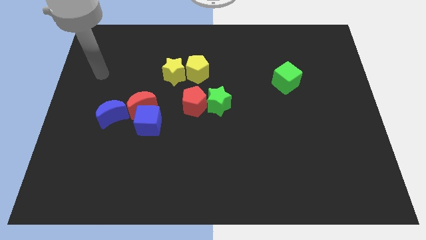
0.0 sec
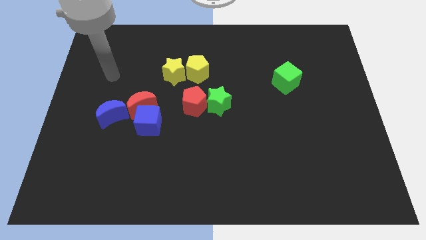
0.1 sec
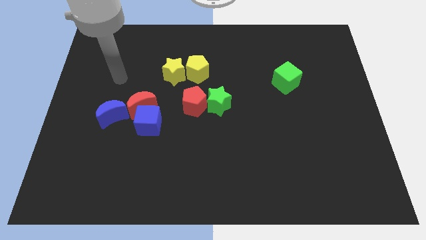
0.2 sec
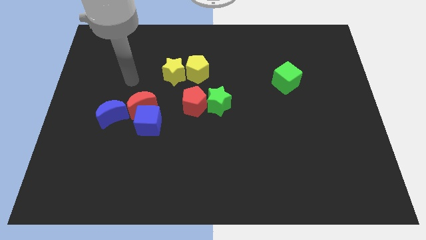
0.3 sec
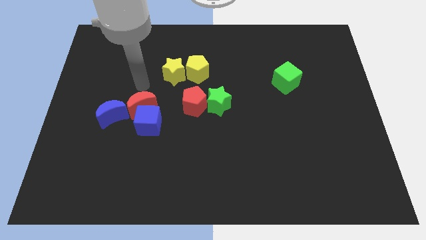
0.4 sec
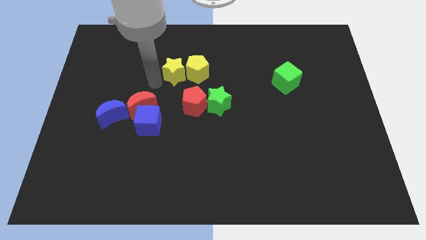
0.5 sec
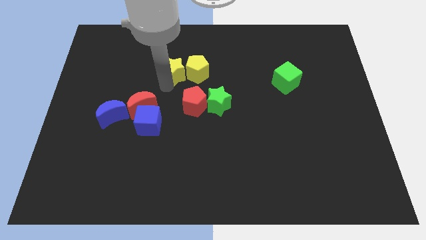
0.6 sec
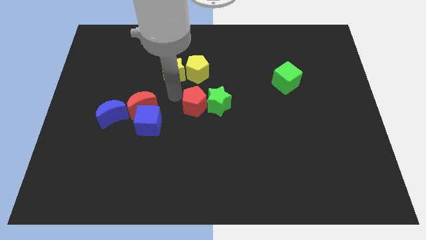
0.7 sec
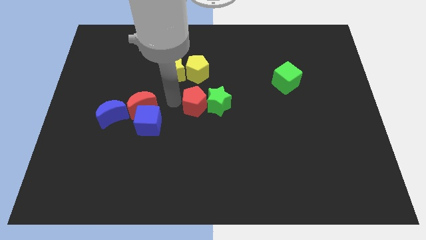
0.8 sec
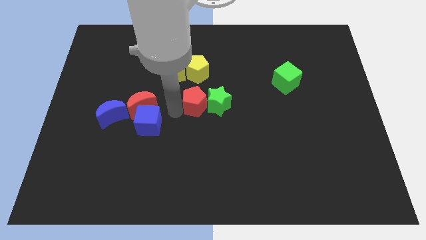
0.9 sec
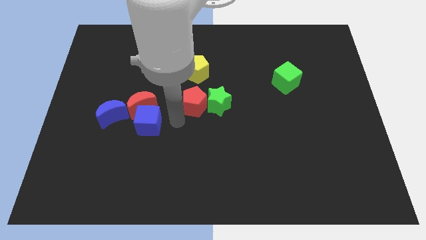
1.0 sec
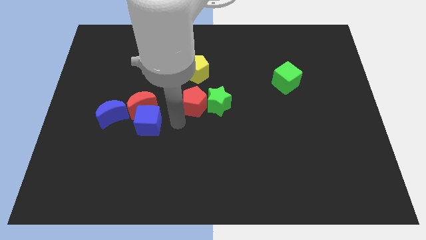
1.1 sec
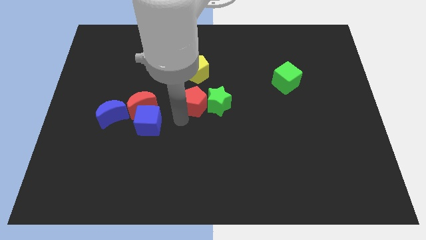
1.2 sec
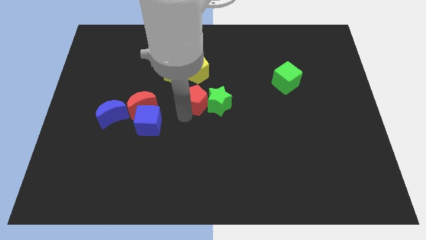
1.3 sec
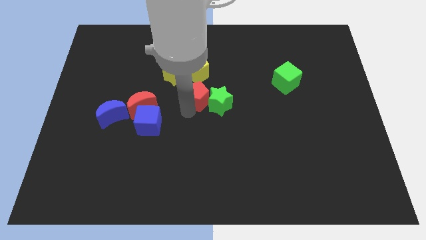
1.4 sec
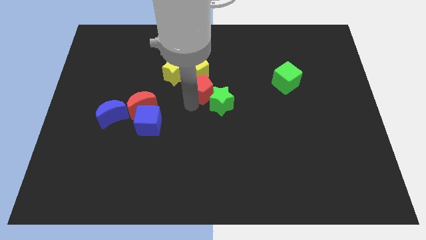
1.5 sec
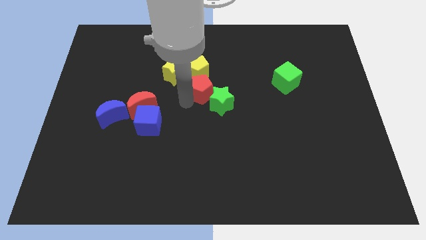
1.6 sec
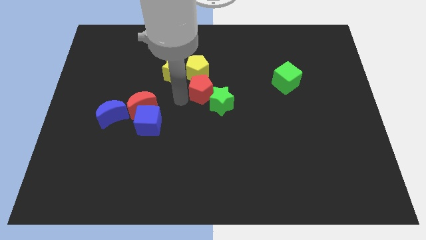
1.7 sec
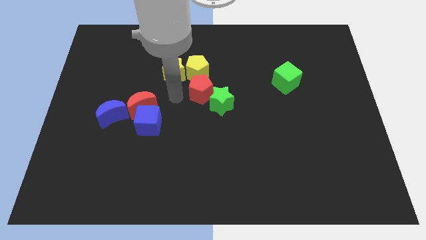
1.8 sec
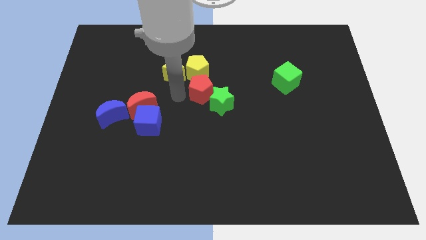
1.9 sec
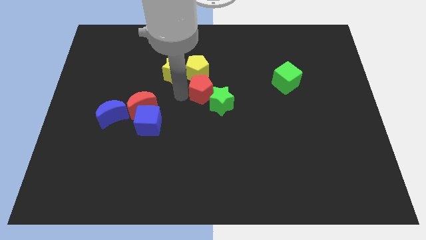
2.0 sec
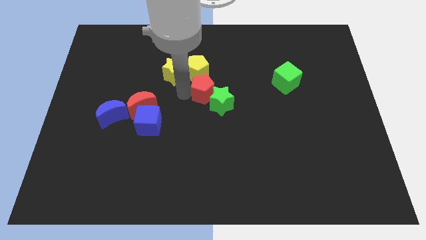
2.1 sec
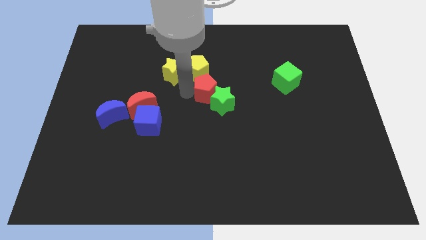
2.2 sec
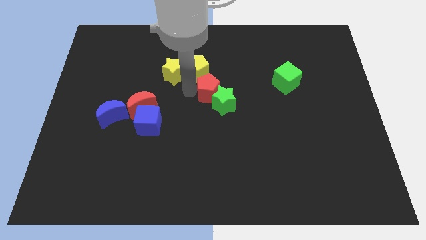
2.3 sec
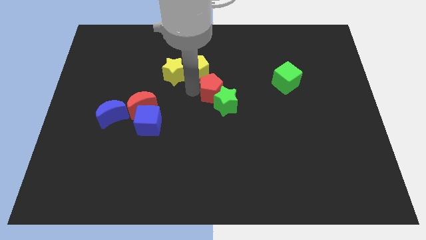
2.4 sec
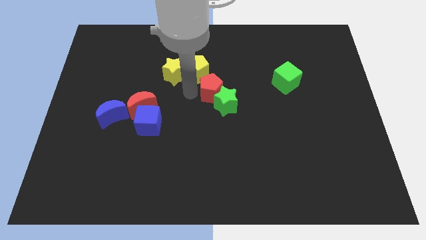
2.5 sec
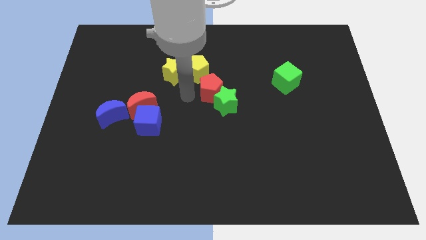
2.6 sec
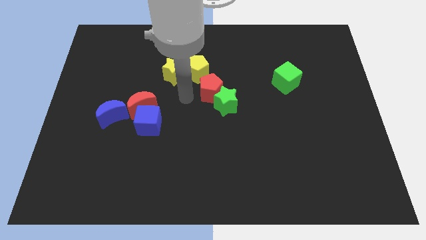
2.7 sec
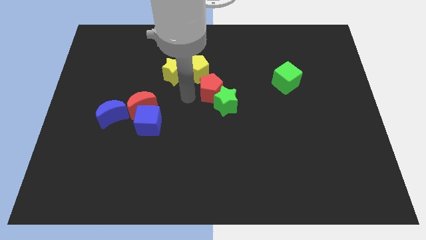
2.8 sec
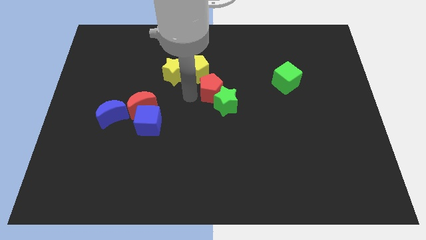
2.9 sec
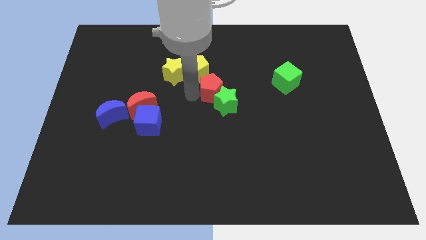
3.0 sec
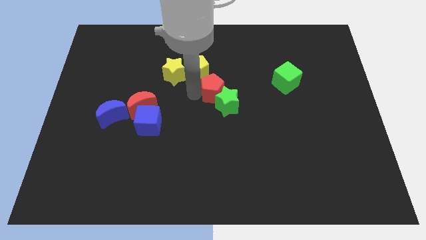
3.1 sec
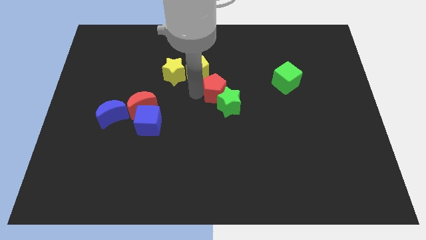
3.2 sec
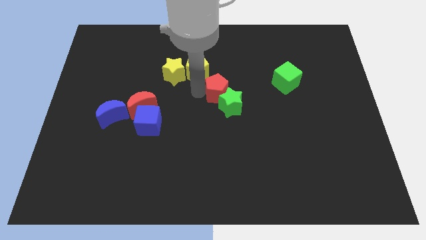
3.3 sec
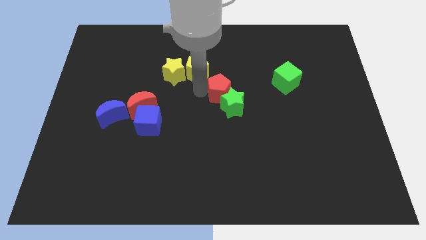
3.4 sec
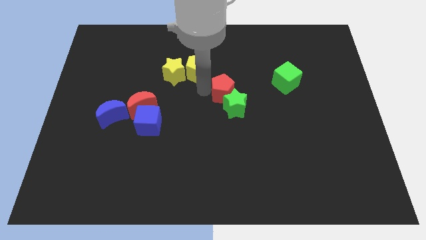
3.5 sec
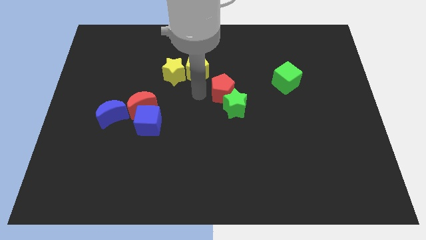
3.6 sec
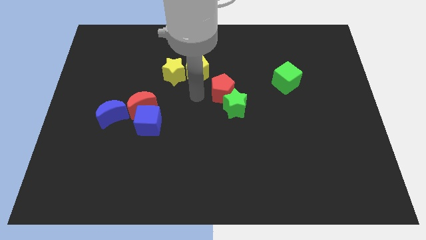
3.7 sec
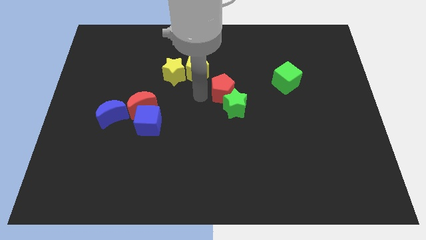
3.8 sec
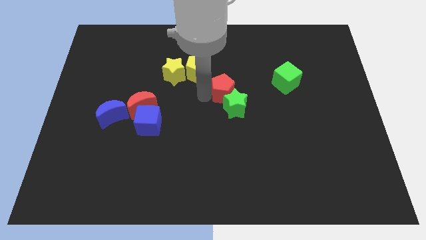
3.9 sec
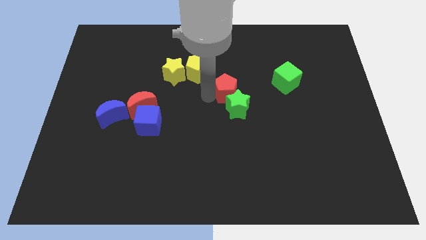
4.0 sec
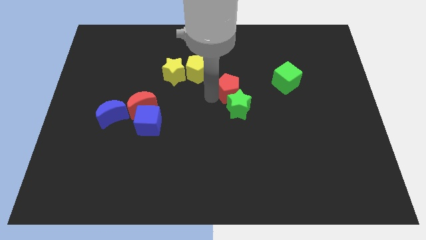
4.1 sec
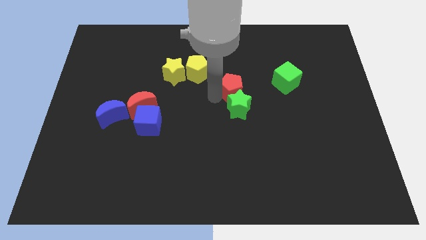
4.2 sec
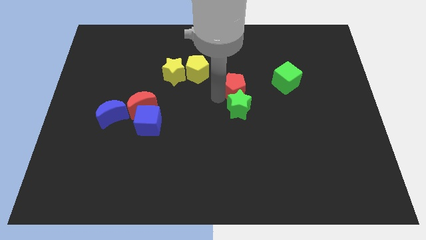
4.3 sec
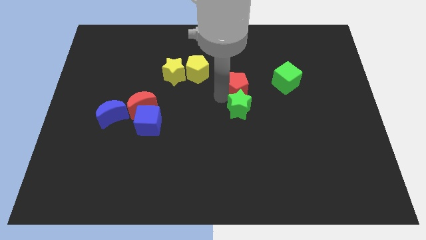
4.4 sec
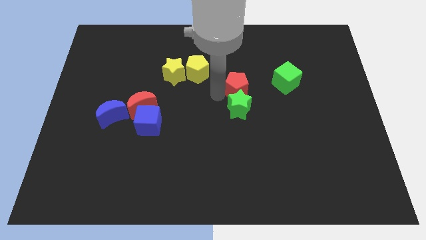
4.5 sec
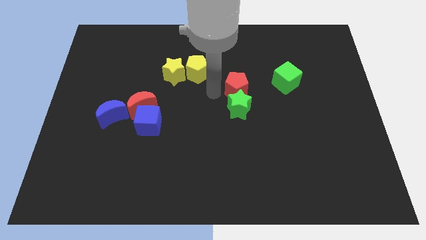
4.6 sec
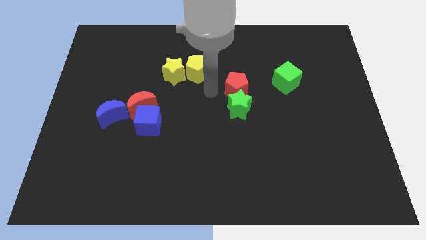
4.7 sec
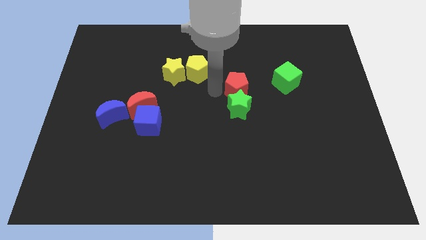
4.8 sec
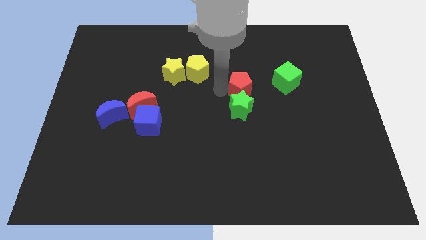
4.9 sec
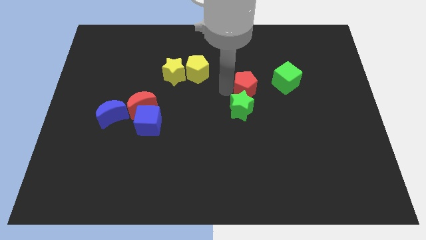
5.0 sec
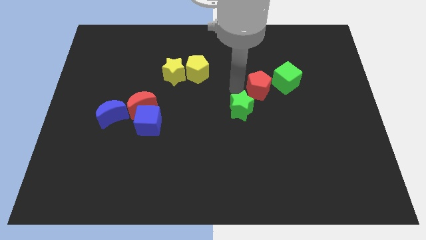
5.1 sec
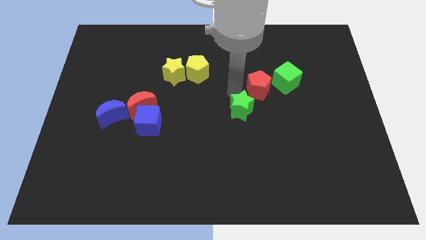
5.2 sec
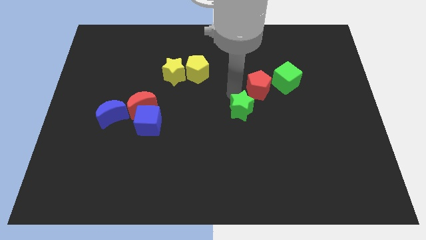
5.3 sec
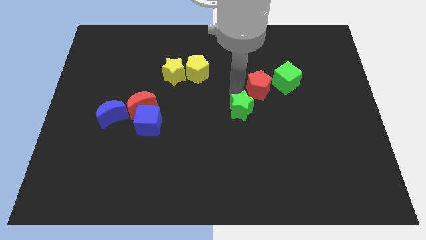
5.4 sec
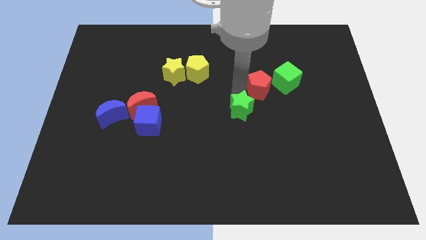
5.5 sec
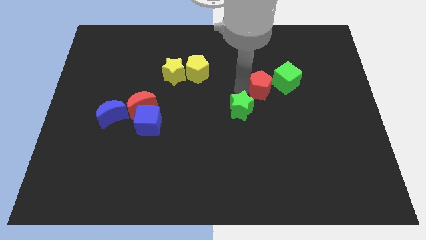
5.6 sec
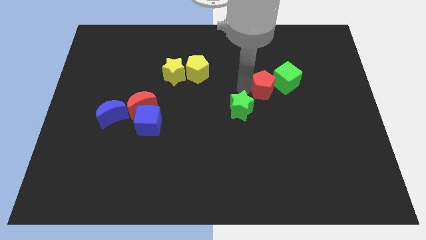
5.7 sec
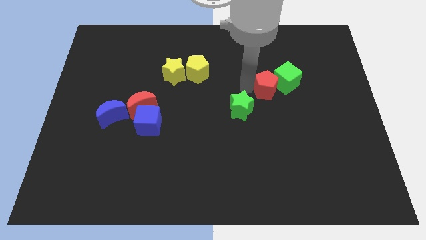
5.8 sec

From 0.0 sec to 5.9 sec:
slide the red pentagon close to the green cube

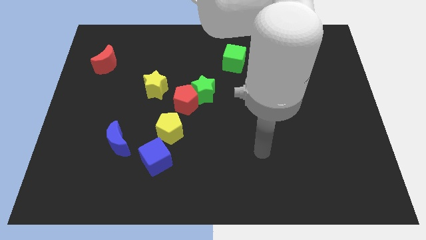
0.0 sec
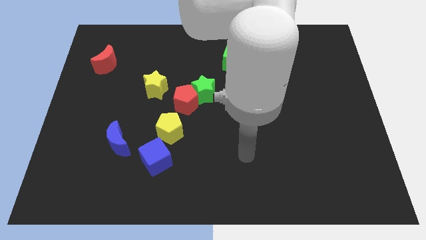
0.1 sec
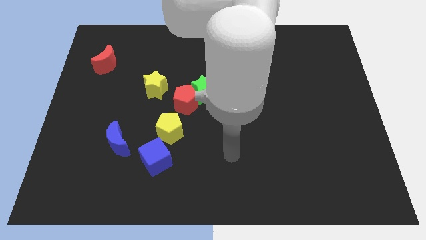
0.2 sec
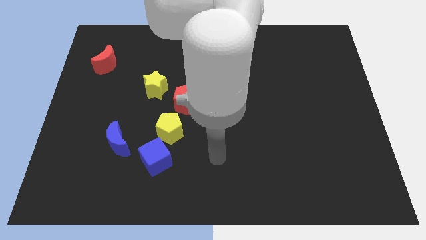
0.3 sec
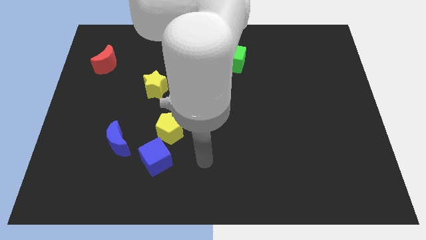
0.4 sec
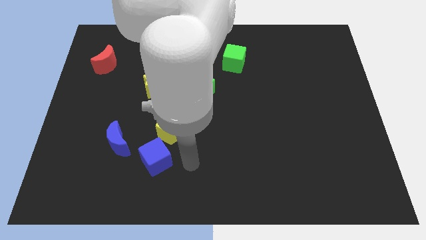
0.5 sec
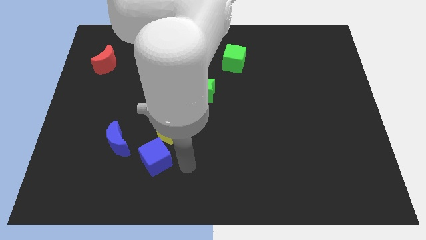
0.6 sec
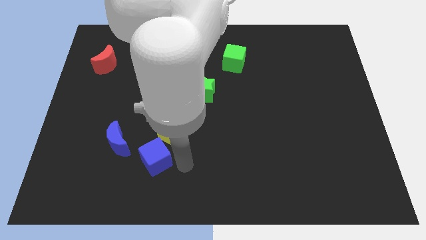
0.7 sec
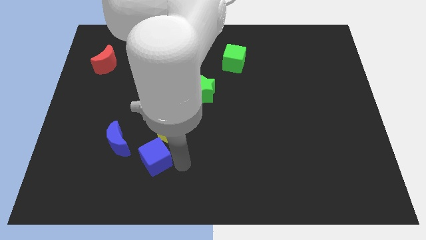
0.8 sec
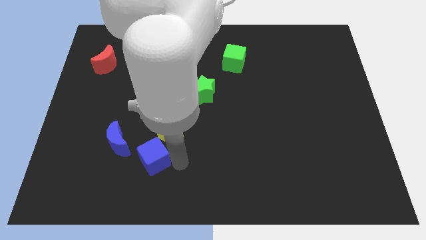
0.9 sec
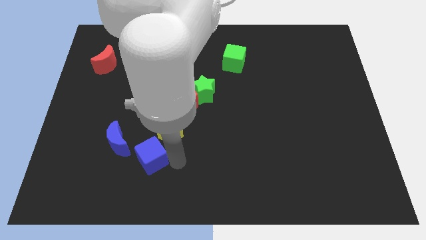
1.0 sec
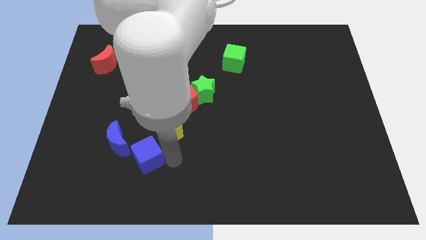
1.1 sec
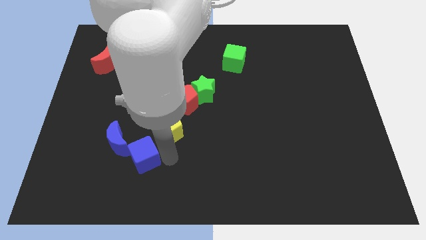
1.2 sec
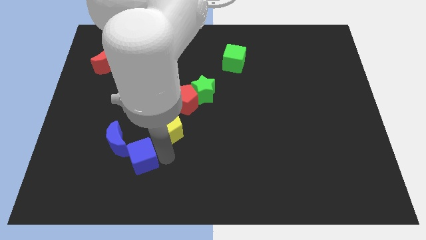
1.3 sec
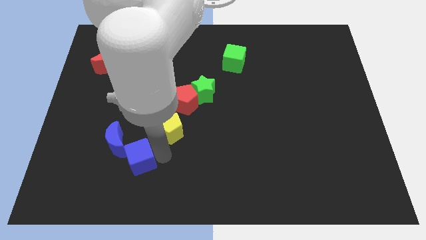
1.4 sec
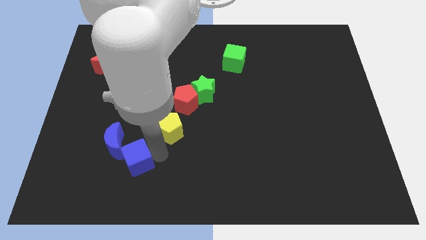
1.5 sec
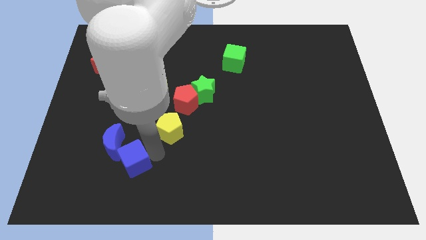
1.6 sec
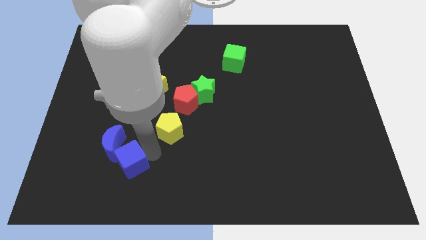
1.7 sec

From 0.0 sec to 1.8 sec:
push the blue cube towards the blue moon
